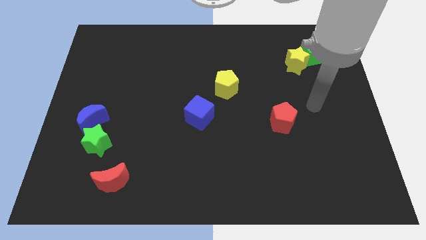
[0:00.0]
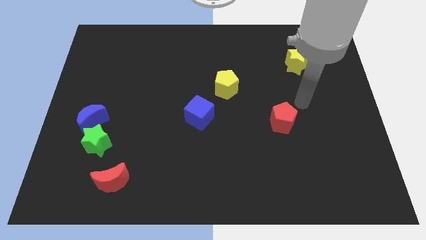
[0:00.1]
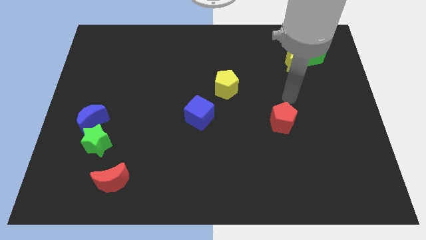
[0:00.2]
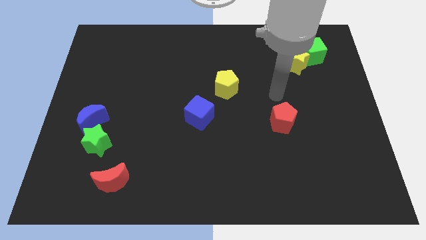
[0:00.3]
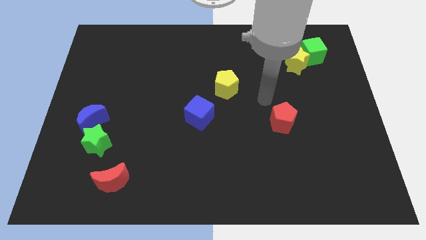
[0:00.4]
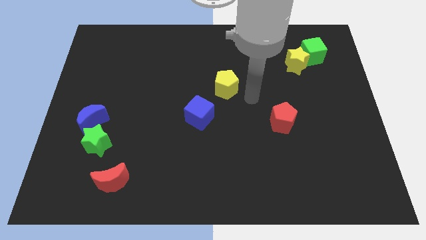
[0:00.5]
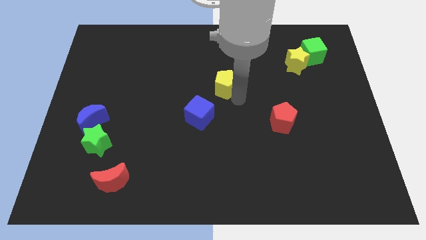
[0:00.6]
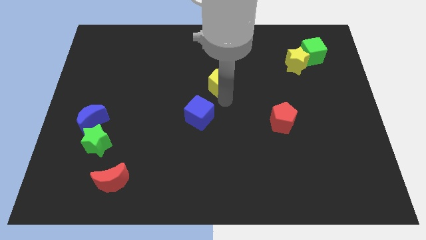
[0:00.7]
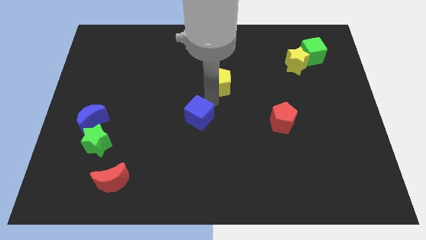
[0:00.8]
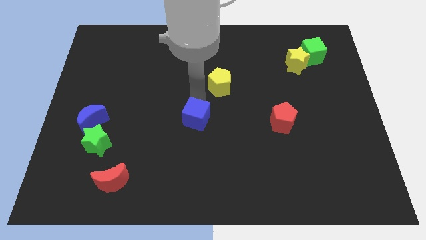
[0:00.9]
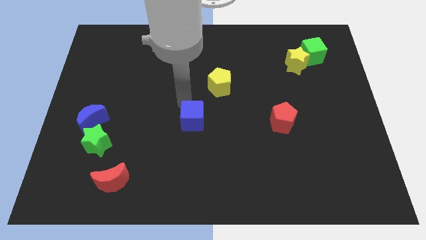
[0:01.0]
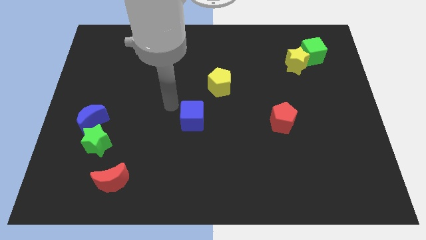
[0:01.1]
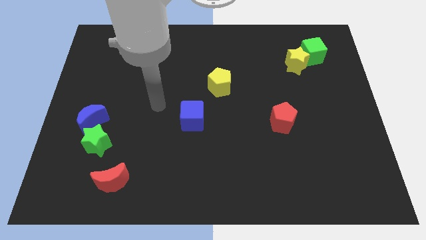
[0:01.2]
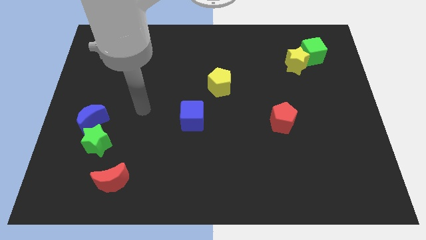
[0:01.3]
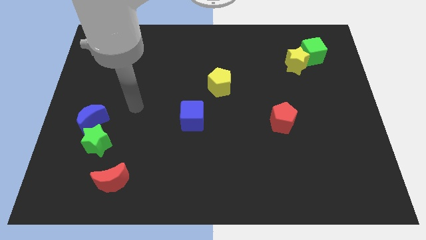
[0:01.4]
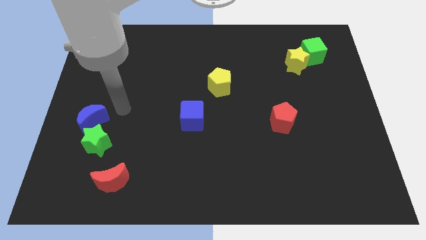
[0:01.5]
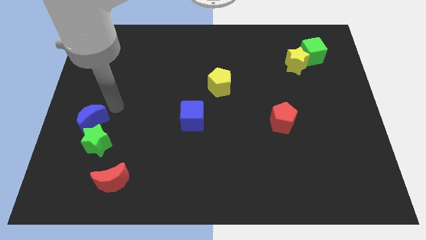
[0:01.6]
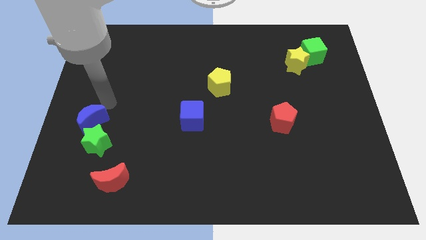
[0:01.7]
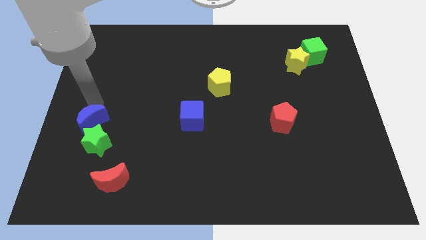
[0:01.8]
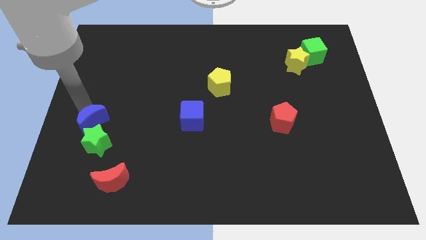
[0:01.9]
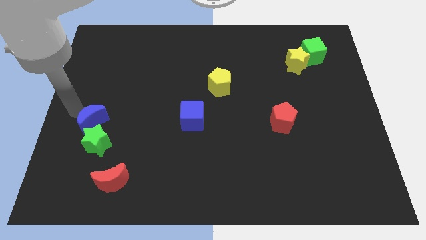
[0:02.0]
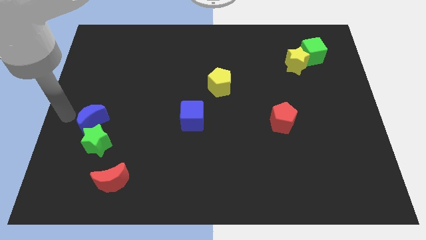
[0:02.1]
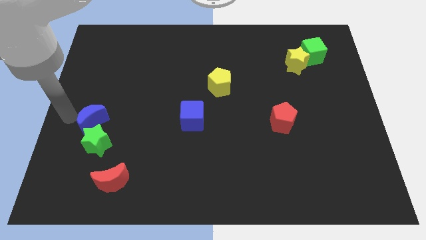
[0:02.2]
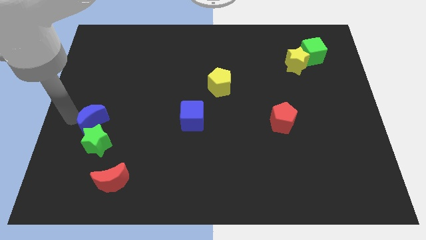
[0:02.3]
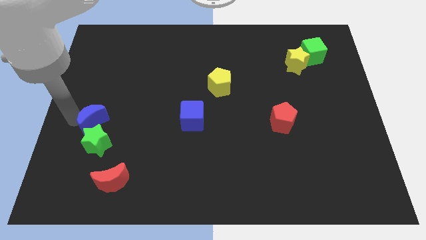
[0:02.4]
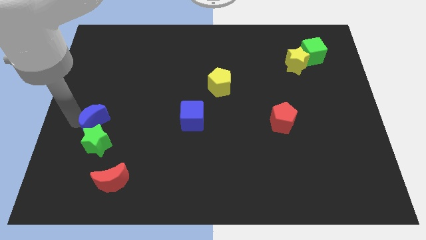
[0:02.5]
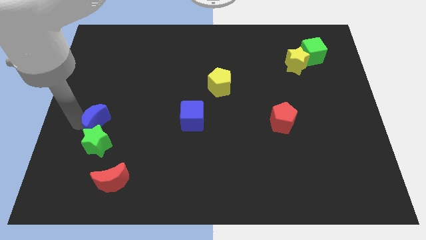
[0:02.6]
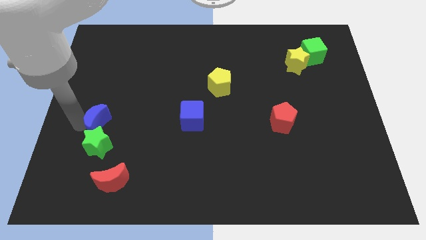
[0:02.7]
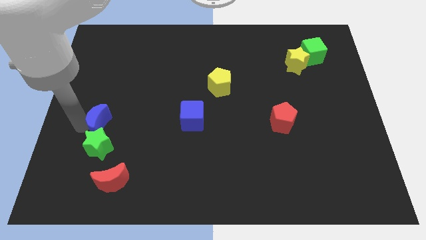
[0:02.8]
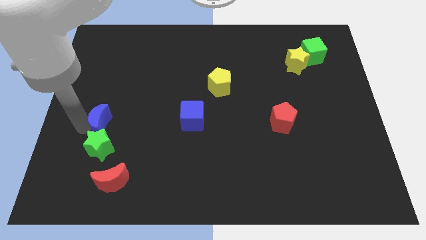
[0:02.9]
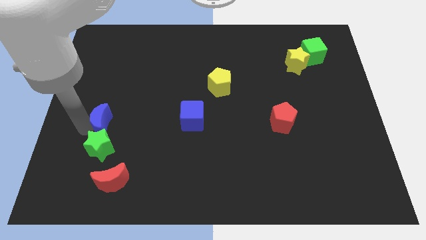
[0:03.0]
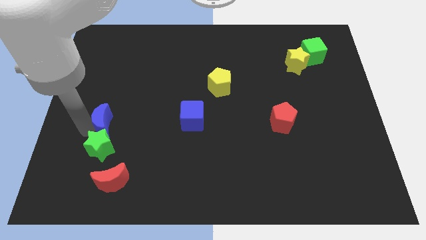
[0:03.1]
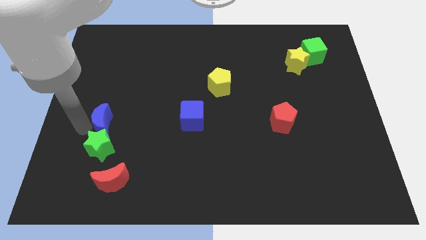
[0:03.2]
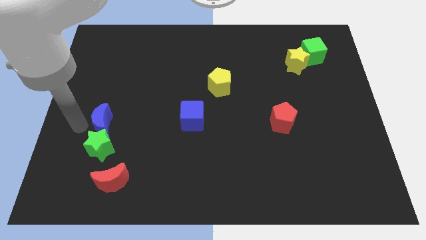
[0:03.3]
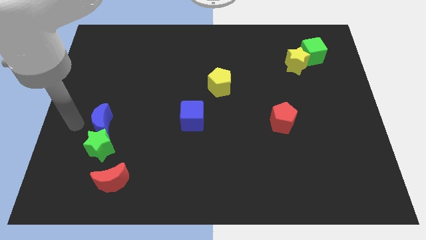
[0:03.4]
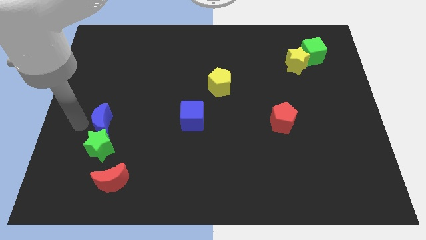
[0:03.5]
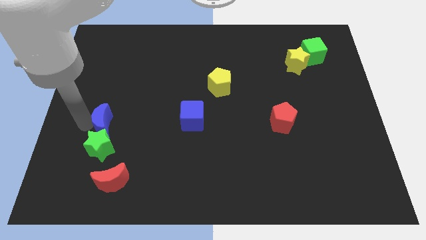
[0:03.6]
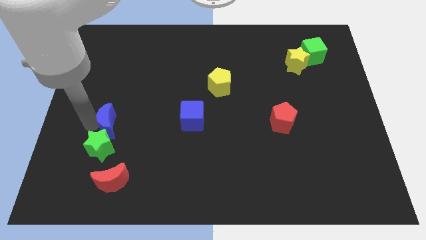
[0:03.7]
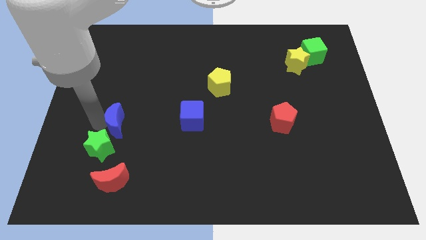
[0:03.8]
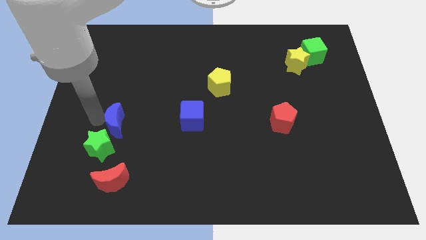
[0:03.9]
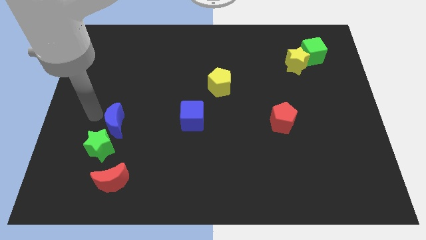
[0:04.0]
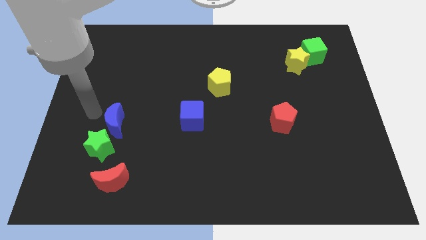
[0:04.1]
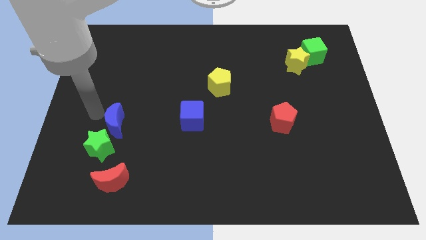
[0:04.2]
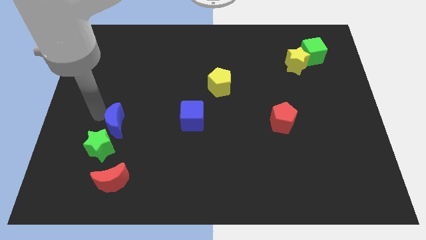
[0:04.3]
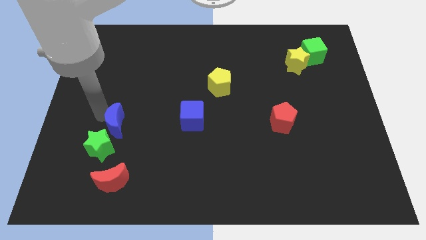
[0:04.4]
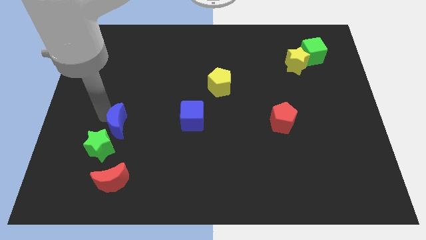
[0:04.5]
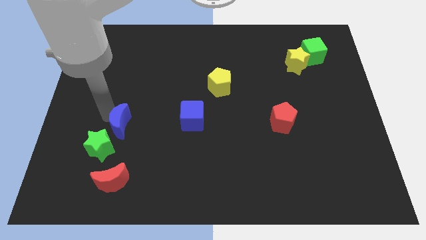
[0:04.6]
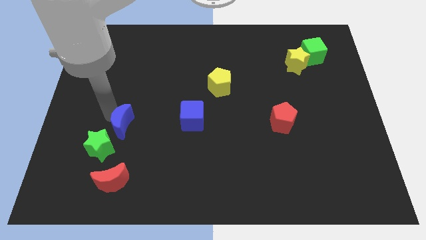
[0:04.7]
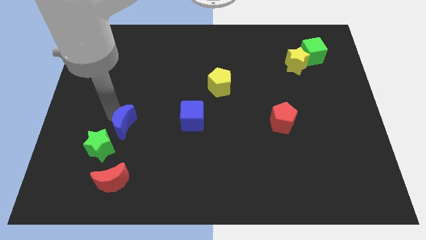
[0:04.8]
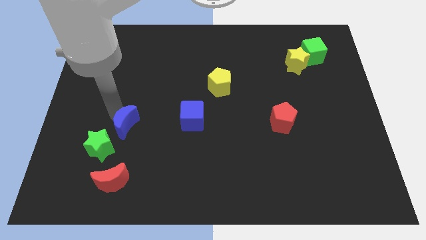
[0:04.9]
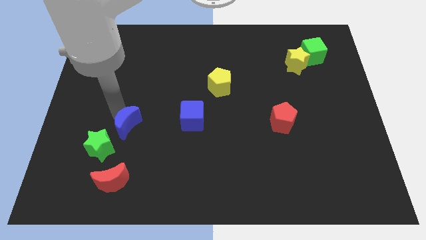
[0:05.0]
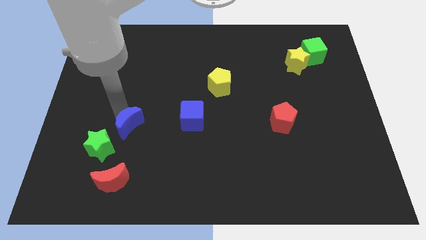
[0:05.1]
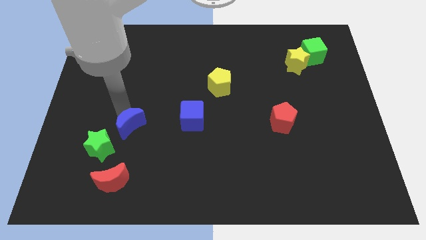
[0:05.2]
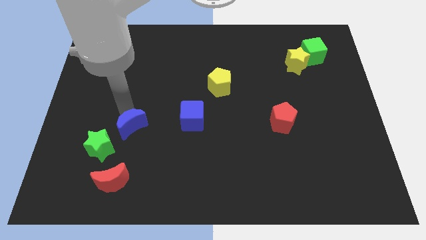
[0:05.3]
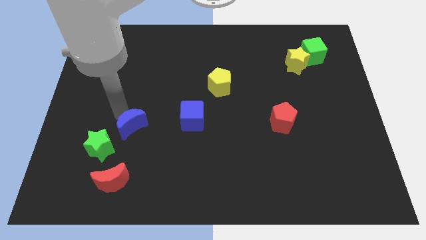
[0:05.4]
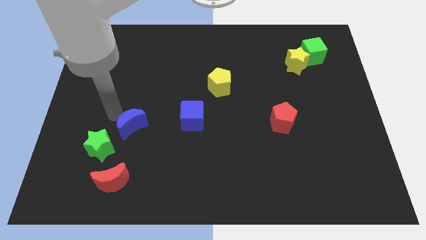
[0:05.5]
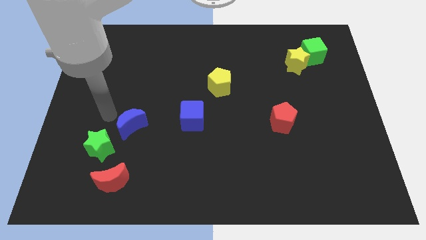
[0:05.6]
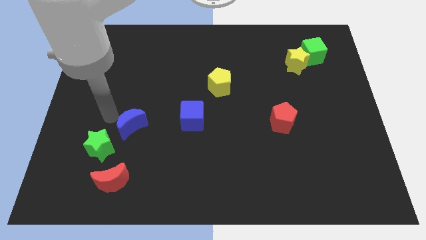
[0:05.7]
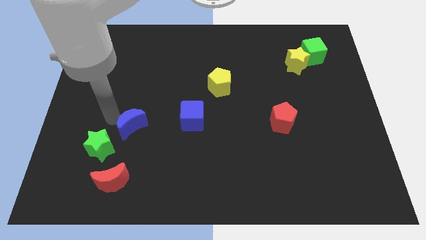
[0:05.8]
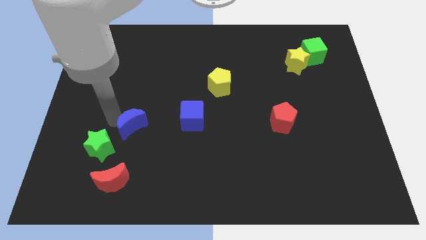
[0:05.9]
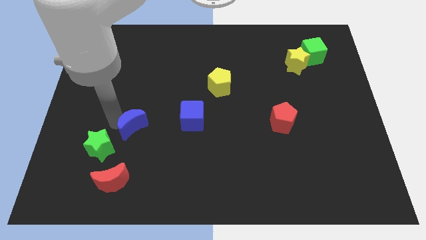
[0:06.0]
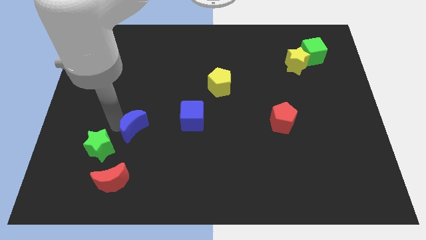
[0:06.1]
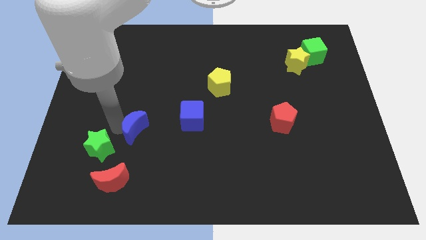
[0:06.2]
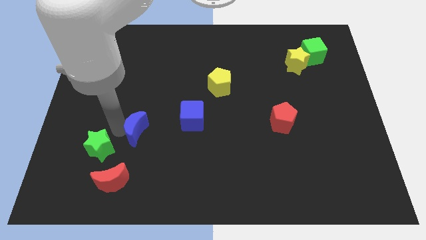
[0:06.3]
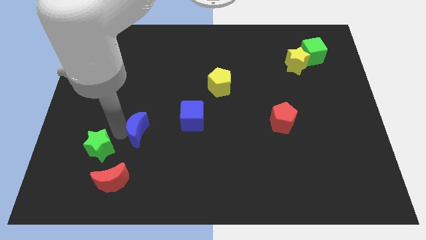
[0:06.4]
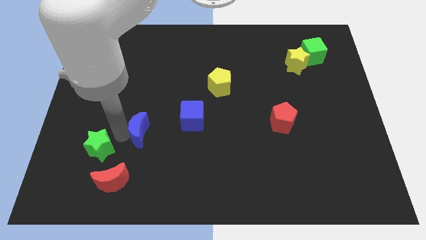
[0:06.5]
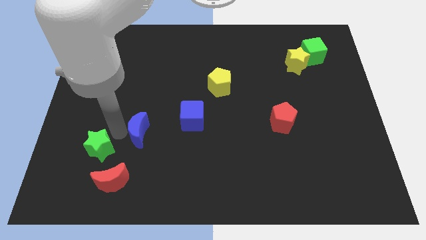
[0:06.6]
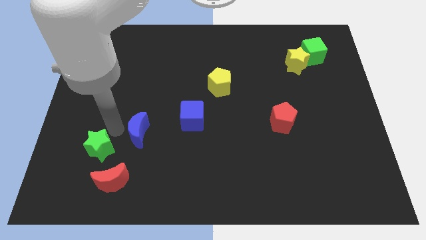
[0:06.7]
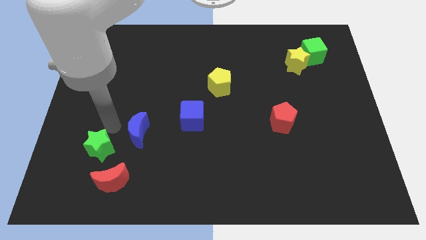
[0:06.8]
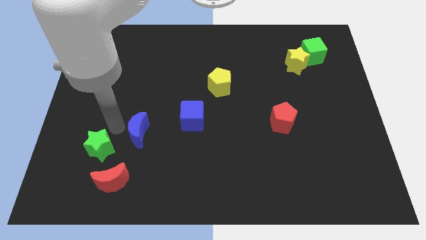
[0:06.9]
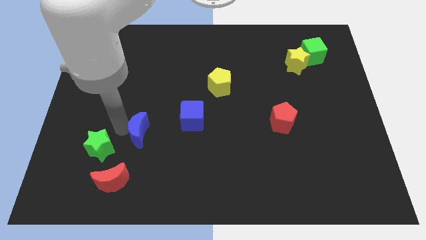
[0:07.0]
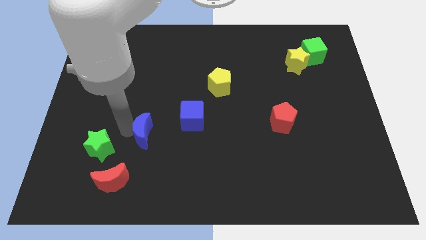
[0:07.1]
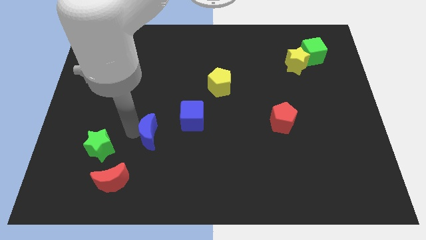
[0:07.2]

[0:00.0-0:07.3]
put the blue moon to the bottom left of the blue cube

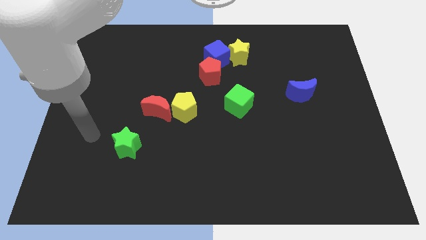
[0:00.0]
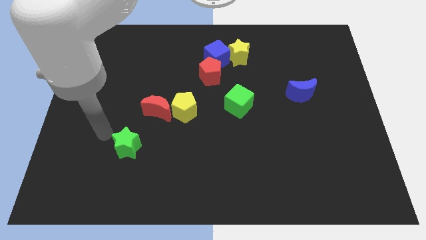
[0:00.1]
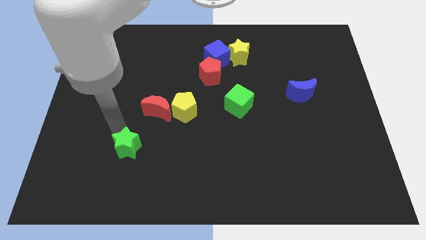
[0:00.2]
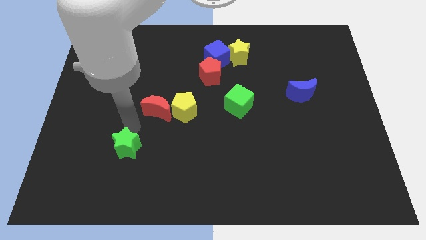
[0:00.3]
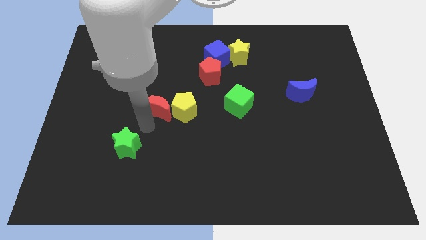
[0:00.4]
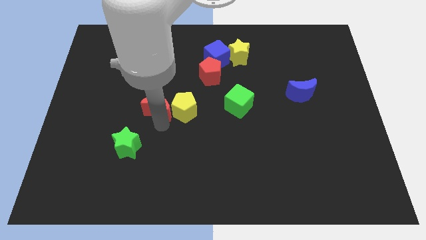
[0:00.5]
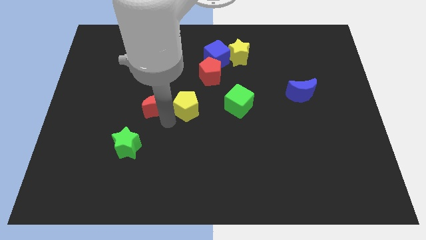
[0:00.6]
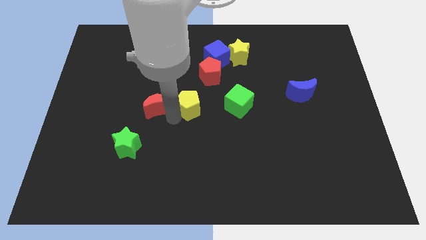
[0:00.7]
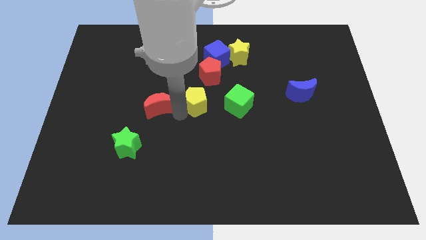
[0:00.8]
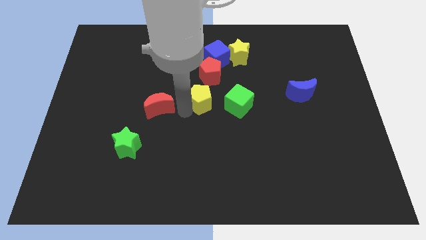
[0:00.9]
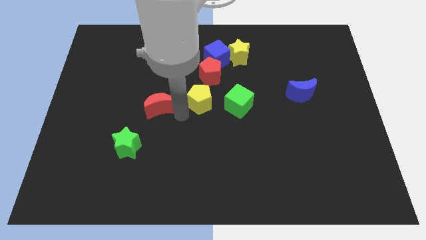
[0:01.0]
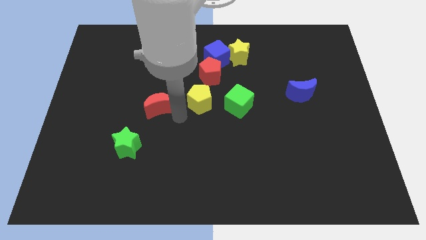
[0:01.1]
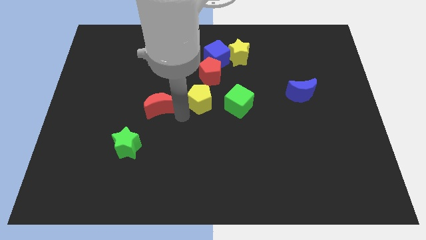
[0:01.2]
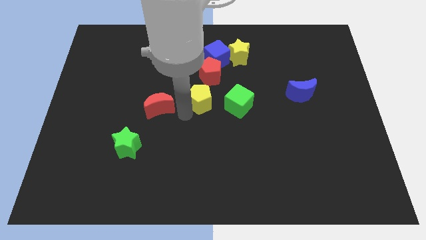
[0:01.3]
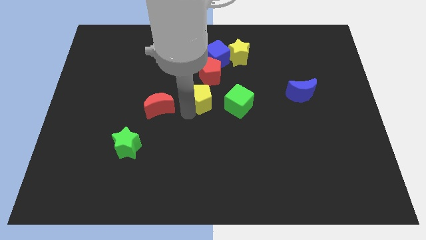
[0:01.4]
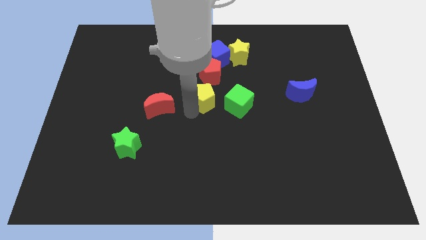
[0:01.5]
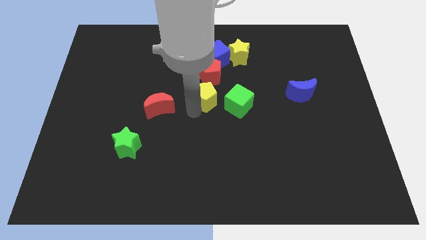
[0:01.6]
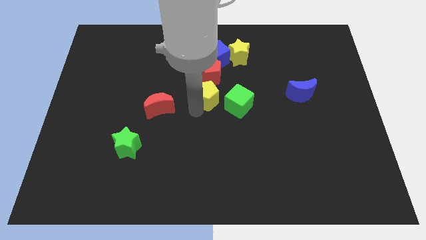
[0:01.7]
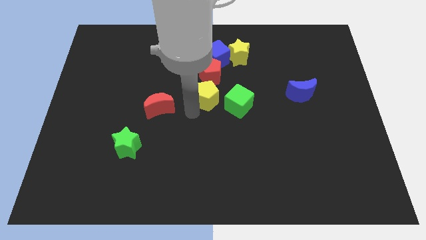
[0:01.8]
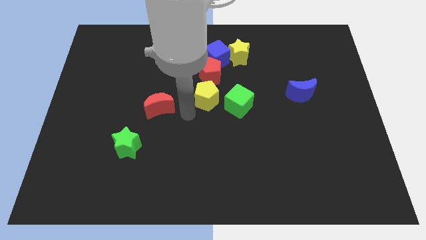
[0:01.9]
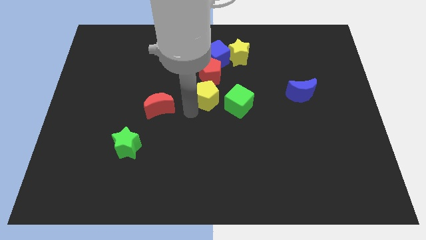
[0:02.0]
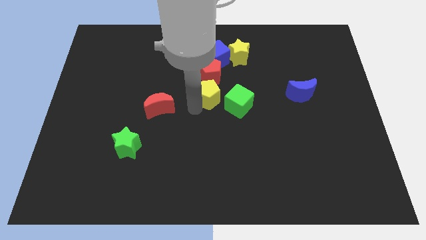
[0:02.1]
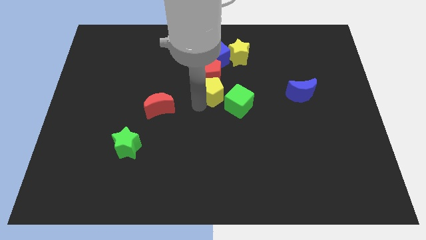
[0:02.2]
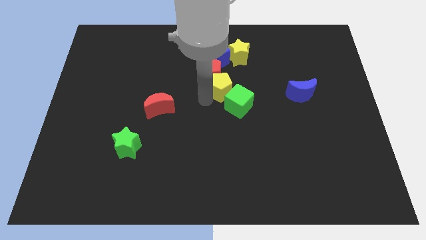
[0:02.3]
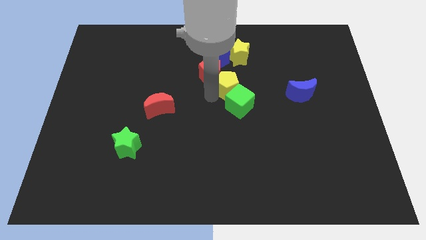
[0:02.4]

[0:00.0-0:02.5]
push the yellow pentagon to the right side of the red pentagon
